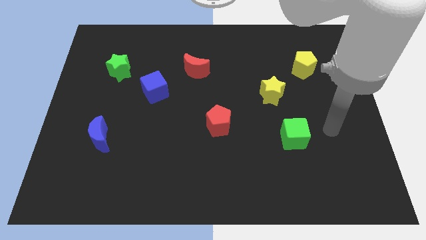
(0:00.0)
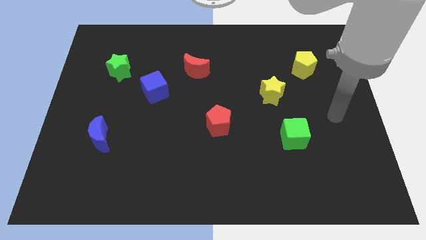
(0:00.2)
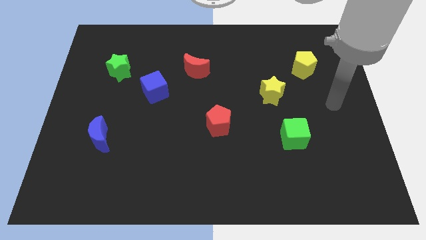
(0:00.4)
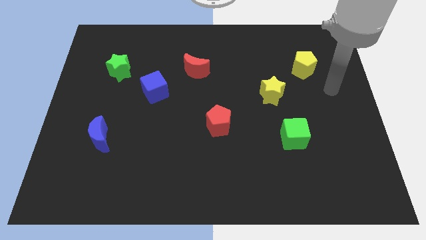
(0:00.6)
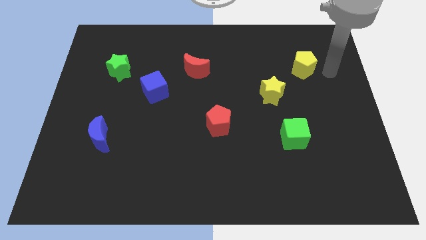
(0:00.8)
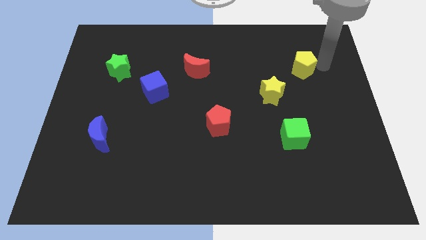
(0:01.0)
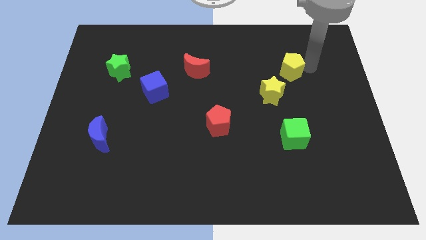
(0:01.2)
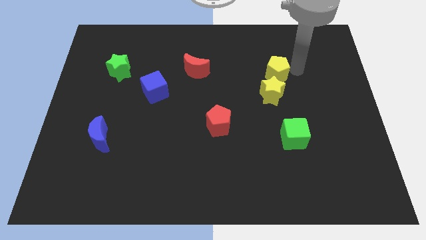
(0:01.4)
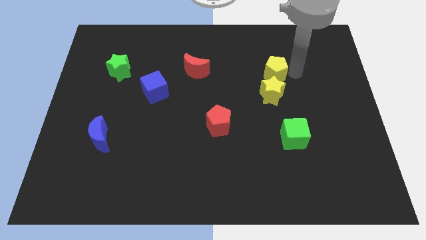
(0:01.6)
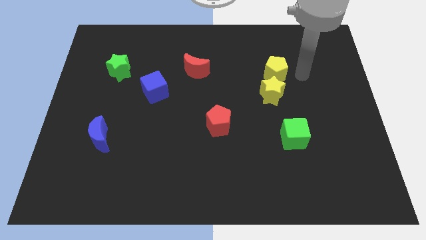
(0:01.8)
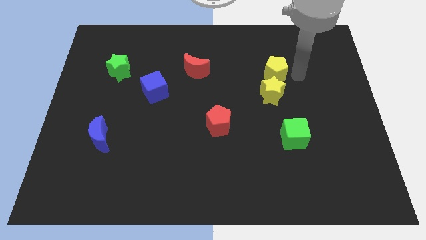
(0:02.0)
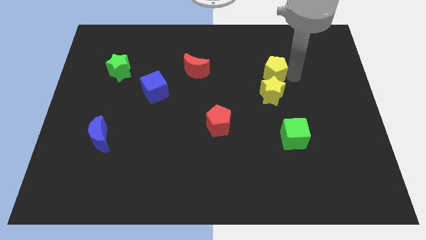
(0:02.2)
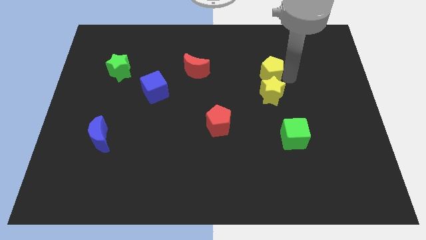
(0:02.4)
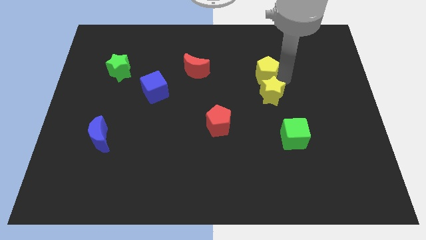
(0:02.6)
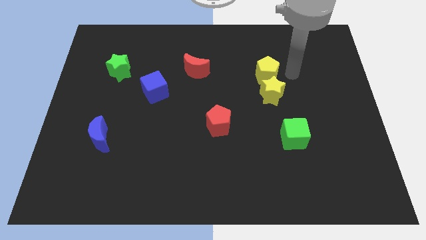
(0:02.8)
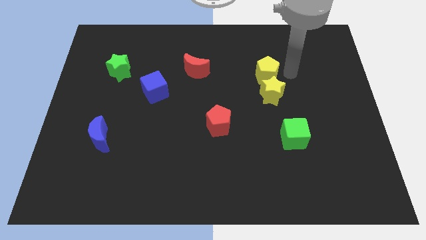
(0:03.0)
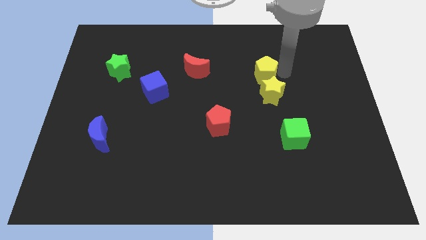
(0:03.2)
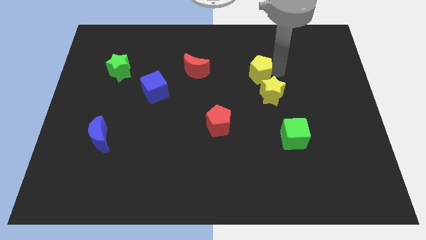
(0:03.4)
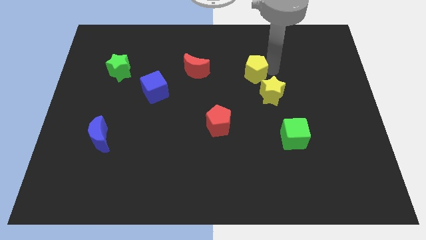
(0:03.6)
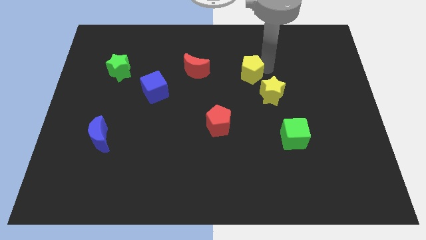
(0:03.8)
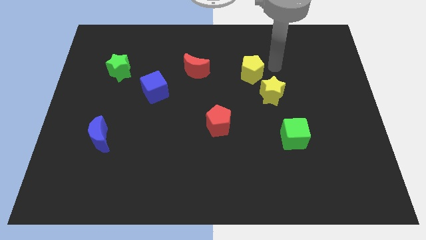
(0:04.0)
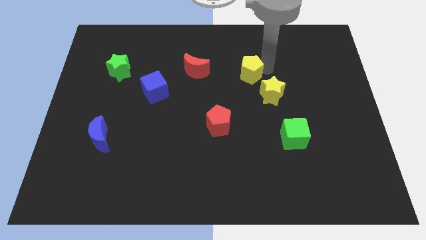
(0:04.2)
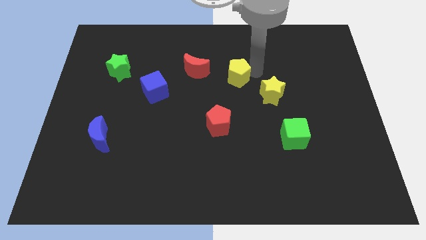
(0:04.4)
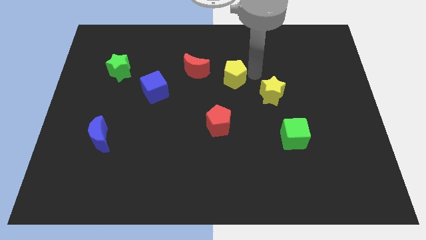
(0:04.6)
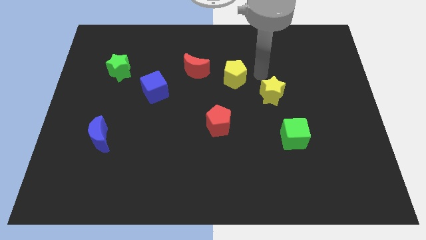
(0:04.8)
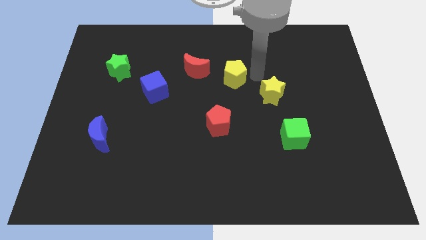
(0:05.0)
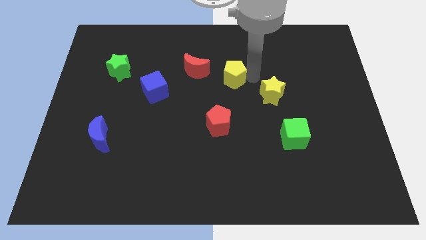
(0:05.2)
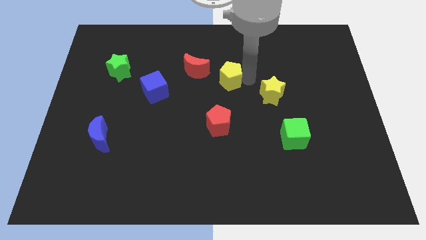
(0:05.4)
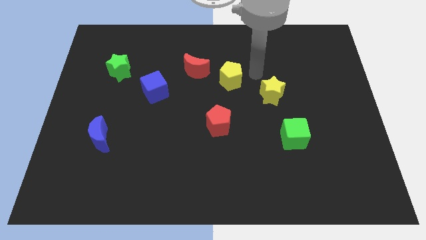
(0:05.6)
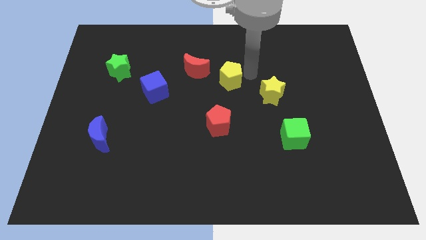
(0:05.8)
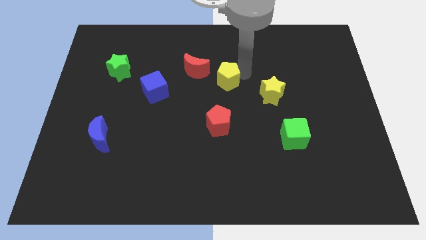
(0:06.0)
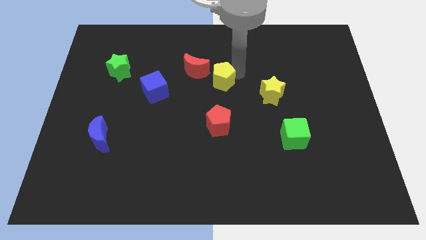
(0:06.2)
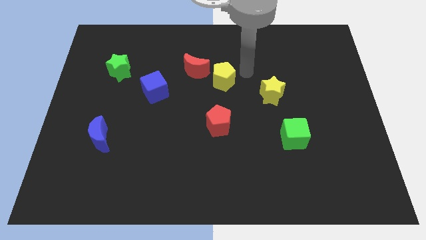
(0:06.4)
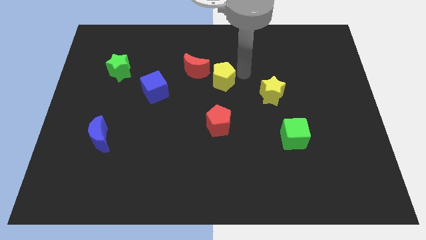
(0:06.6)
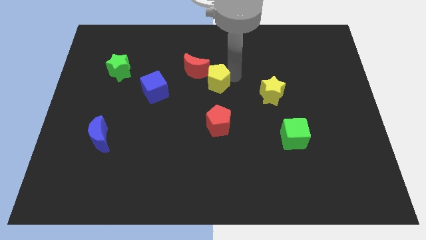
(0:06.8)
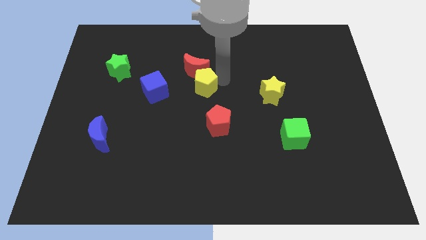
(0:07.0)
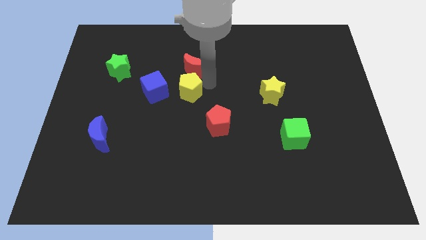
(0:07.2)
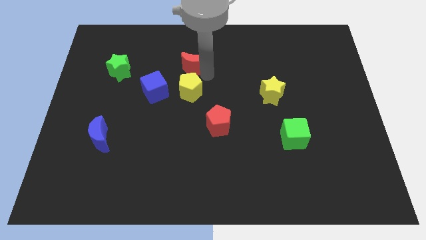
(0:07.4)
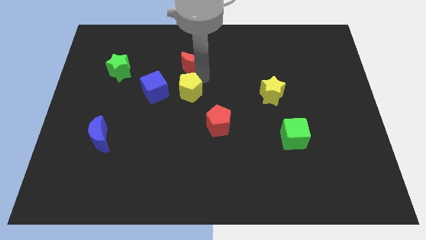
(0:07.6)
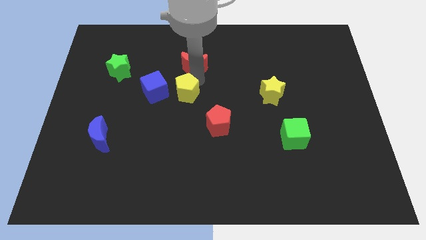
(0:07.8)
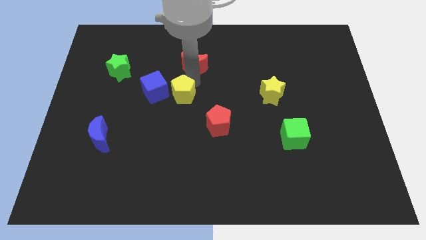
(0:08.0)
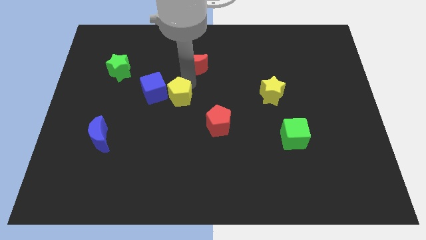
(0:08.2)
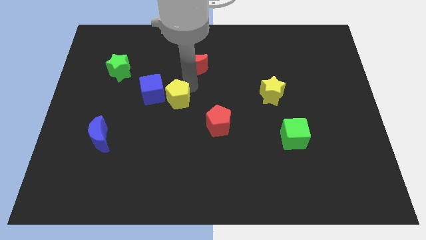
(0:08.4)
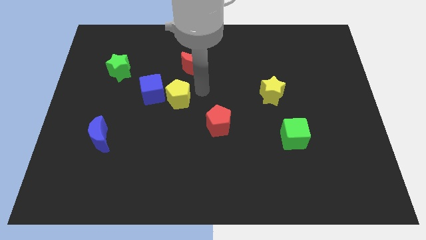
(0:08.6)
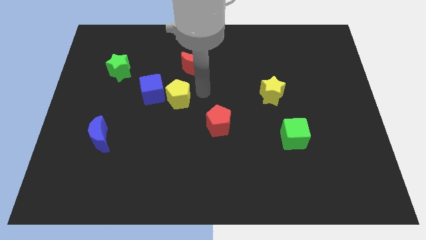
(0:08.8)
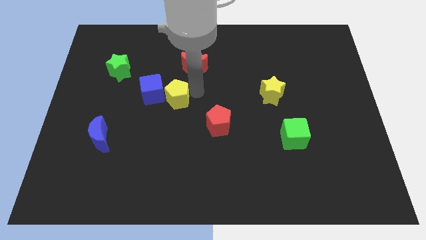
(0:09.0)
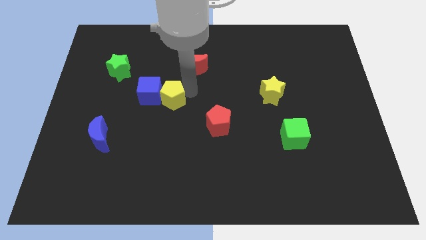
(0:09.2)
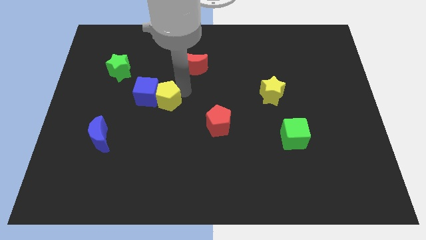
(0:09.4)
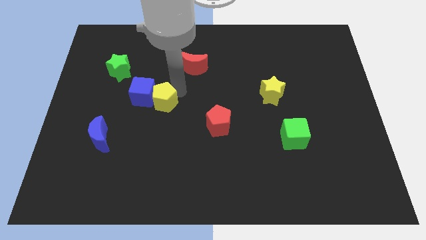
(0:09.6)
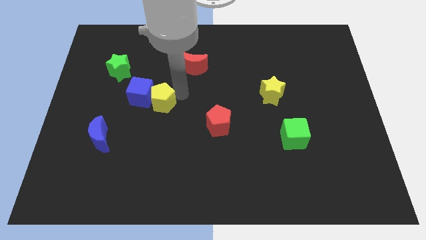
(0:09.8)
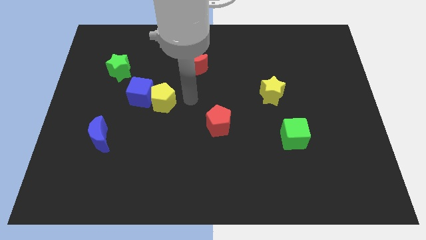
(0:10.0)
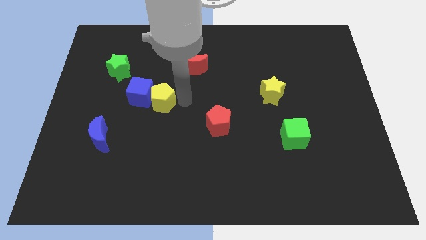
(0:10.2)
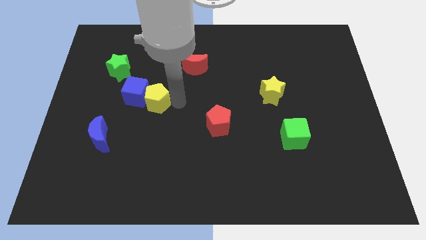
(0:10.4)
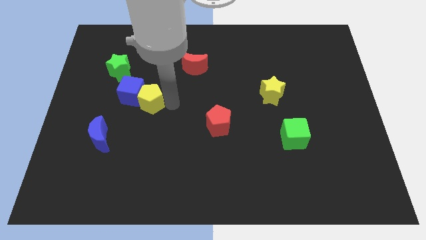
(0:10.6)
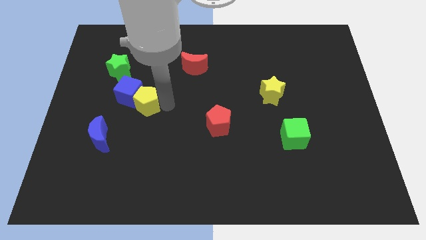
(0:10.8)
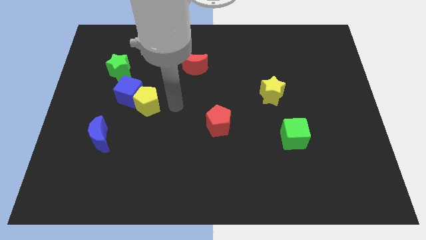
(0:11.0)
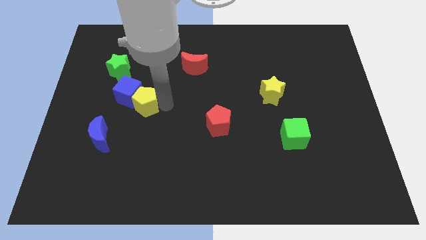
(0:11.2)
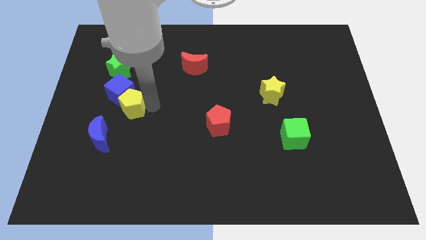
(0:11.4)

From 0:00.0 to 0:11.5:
move the yellow pentagon to the bottom of the green star
